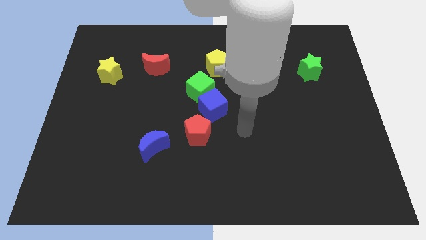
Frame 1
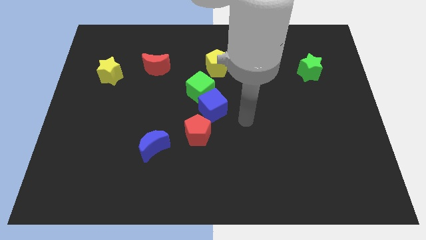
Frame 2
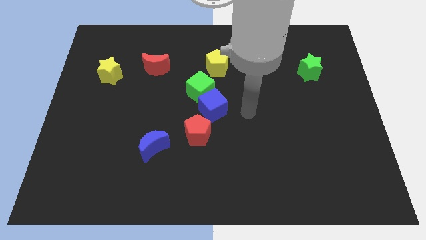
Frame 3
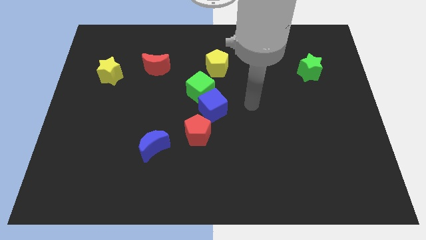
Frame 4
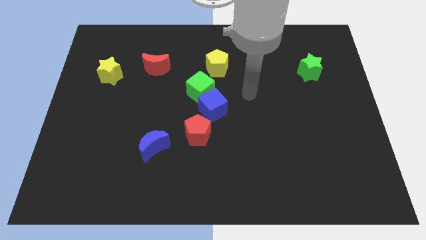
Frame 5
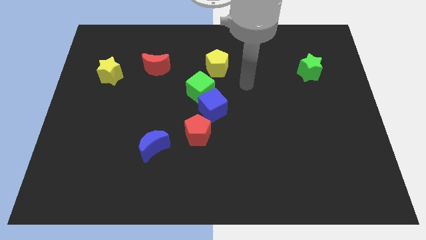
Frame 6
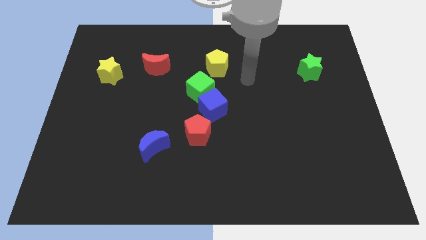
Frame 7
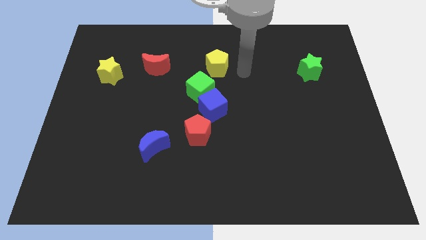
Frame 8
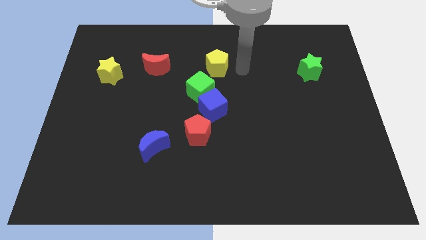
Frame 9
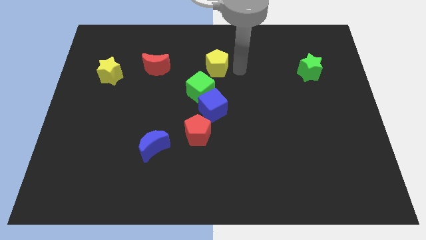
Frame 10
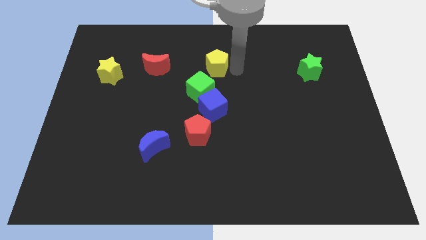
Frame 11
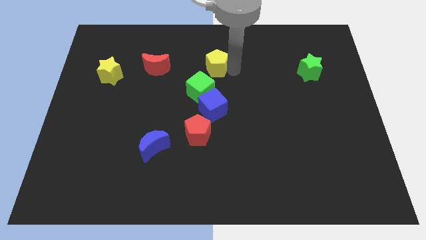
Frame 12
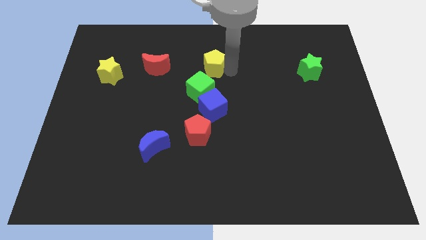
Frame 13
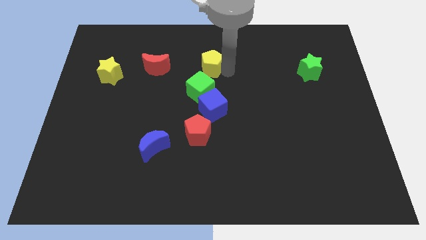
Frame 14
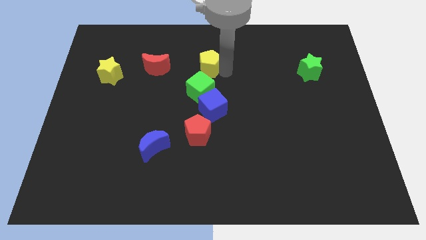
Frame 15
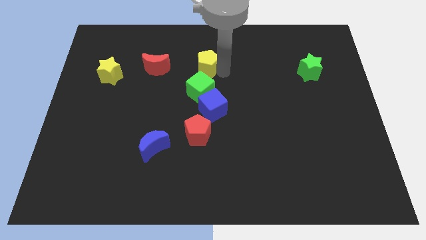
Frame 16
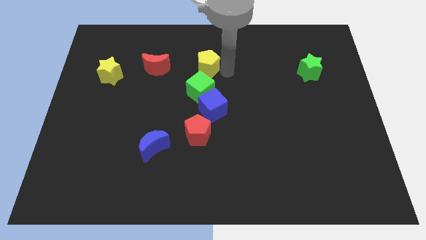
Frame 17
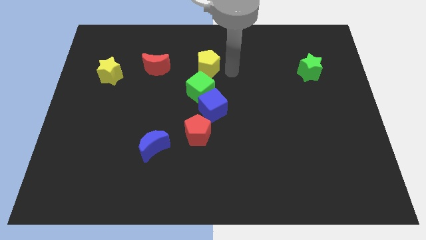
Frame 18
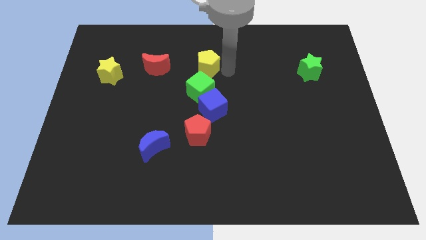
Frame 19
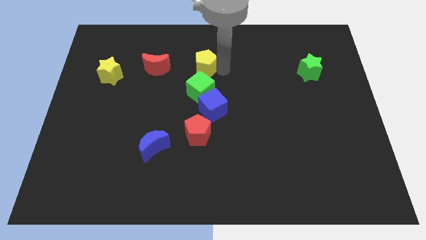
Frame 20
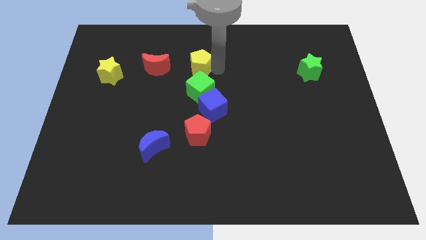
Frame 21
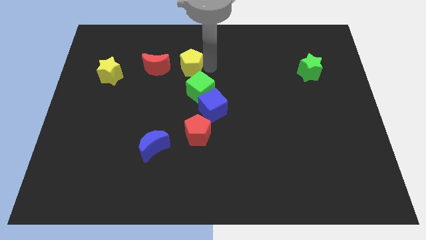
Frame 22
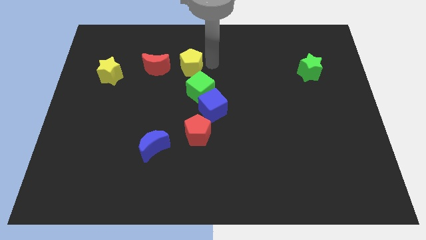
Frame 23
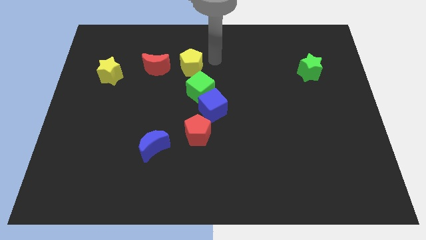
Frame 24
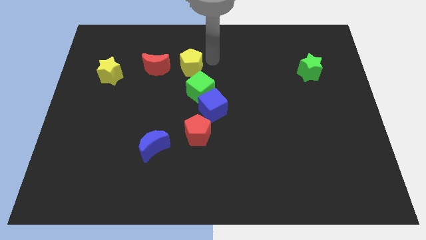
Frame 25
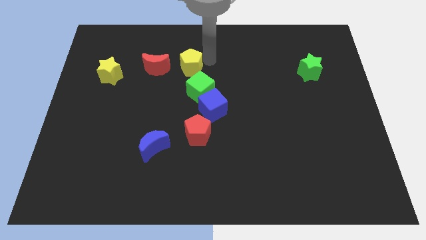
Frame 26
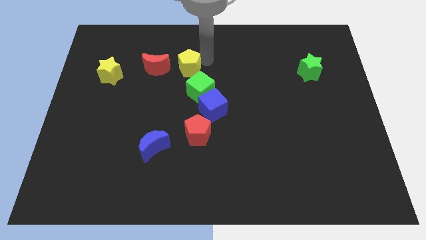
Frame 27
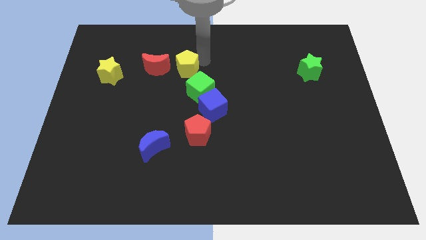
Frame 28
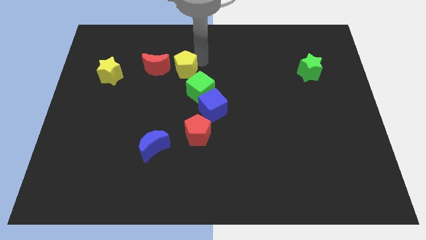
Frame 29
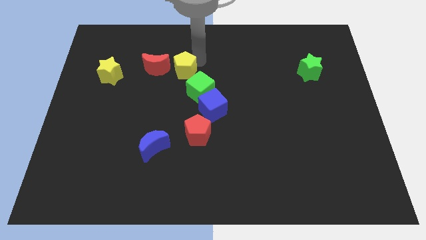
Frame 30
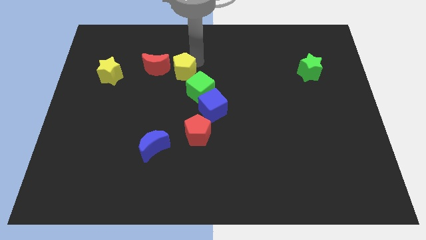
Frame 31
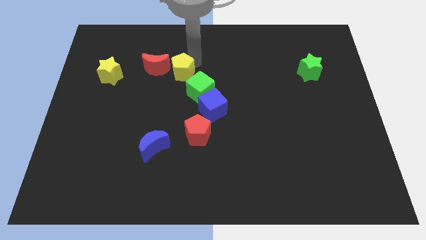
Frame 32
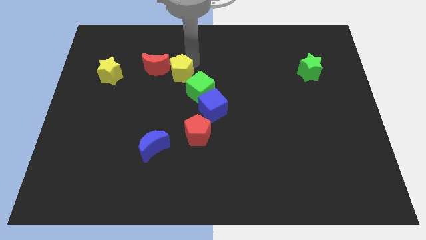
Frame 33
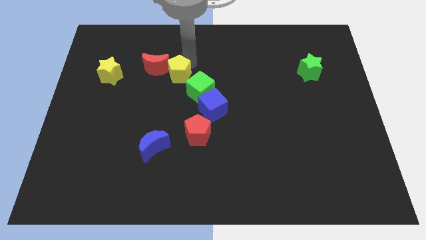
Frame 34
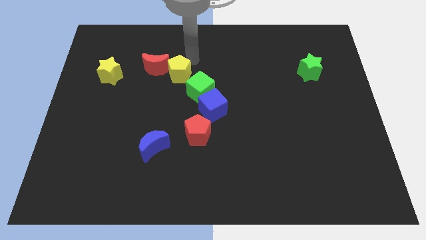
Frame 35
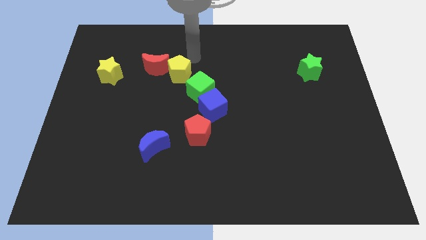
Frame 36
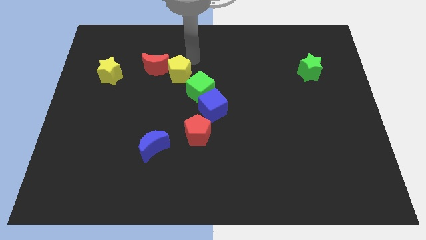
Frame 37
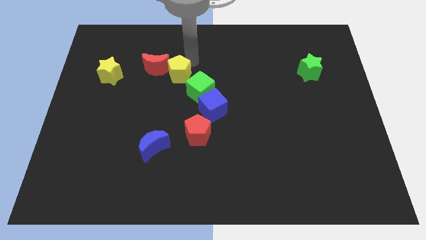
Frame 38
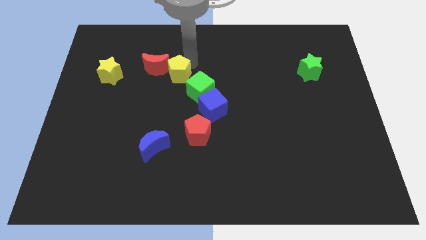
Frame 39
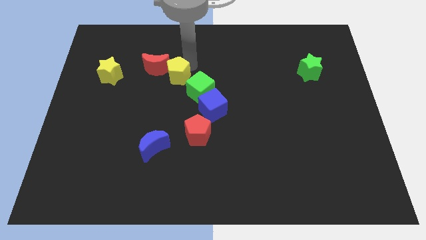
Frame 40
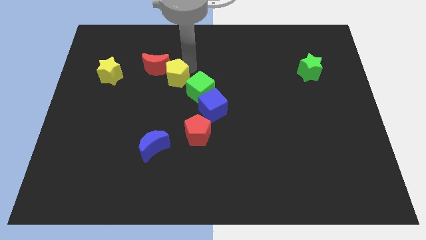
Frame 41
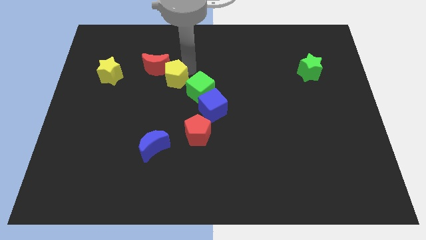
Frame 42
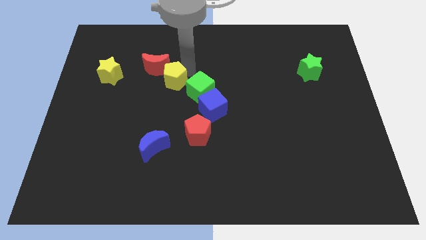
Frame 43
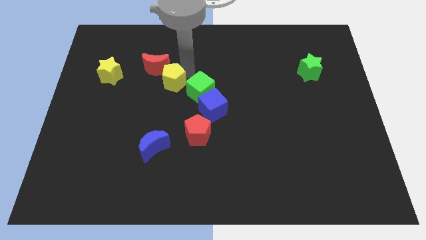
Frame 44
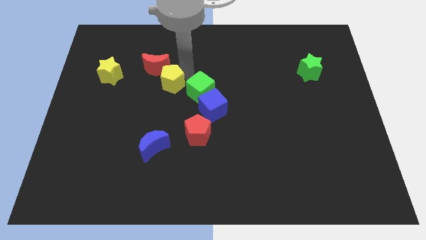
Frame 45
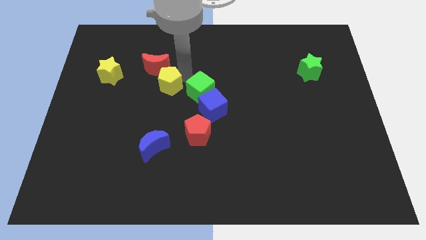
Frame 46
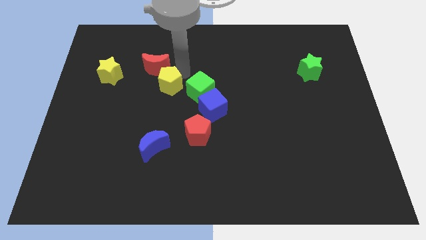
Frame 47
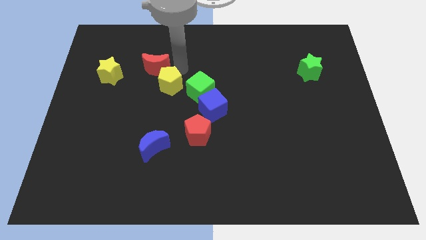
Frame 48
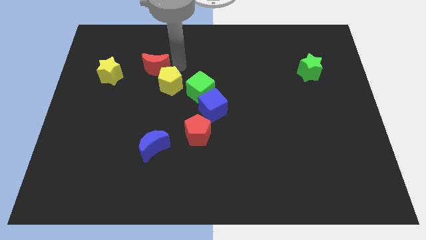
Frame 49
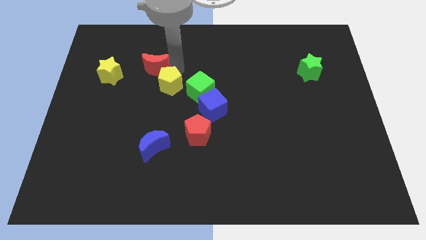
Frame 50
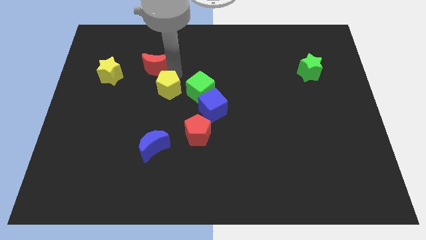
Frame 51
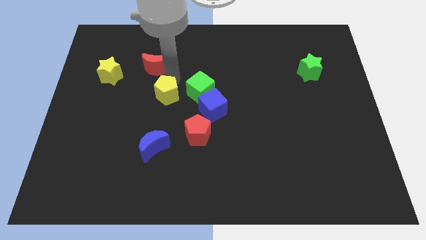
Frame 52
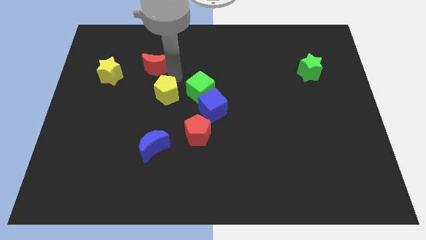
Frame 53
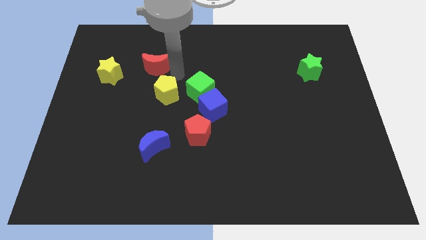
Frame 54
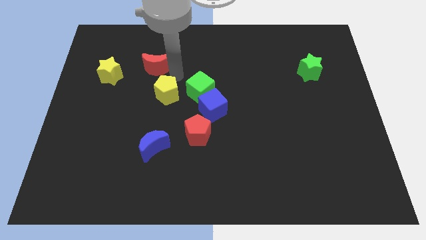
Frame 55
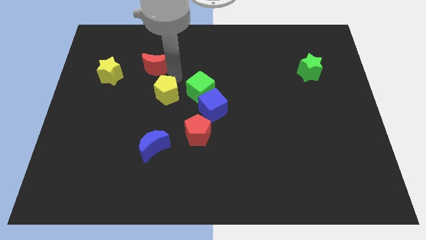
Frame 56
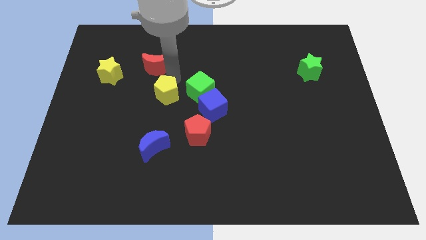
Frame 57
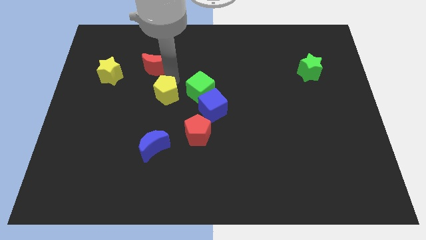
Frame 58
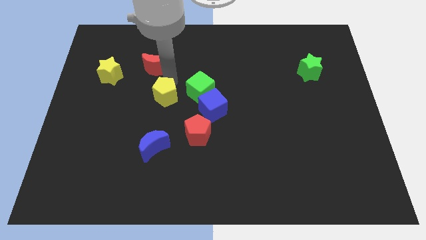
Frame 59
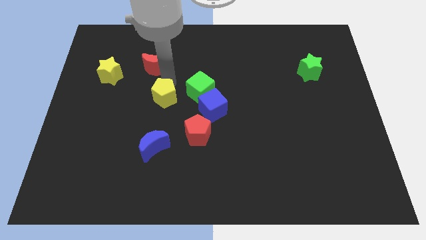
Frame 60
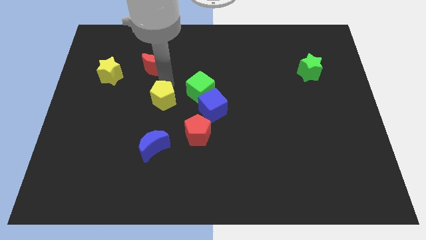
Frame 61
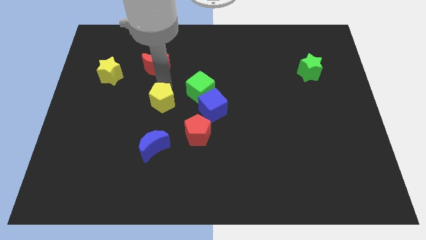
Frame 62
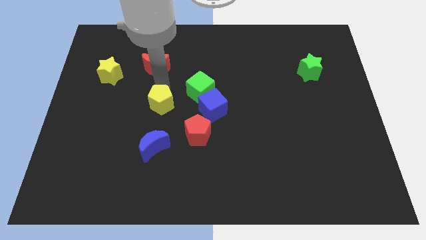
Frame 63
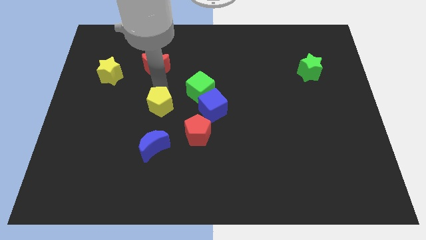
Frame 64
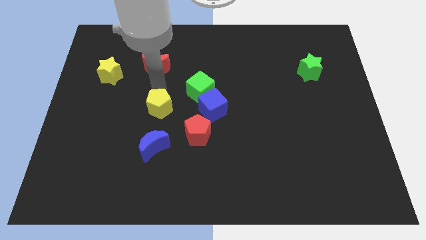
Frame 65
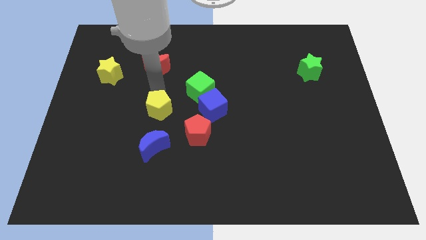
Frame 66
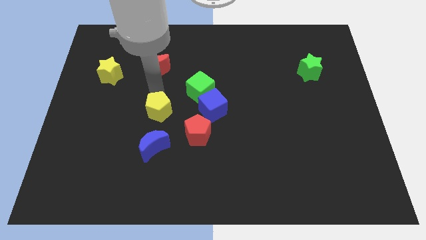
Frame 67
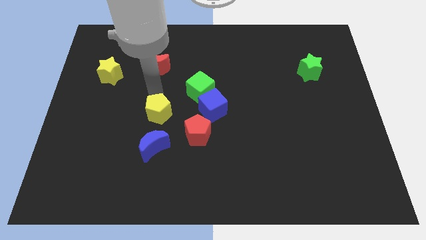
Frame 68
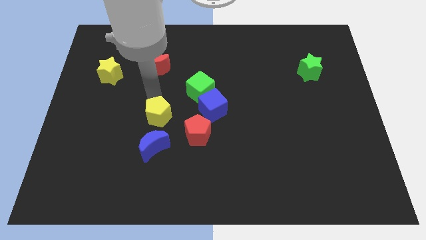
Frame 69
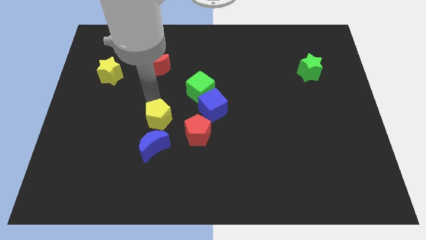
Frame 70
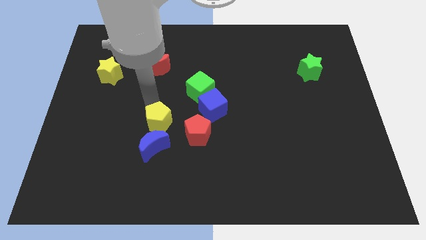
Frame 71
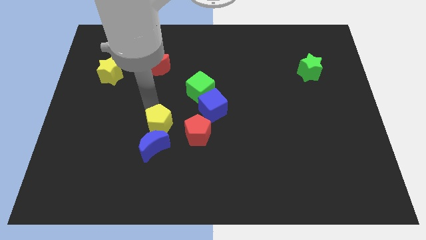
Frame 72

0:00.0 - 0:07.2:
push the yellow pentagon towards the blue moon
